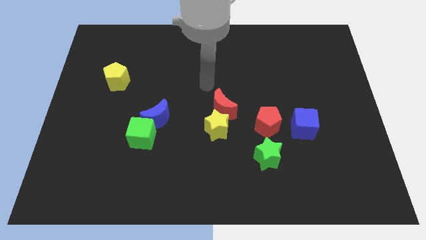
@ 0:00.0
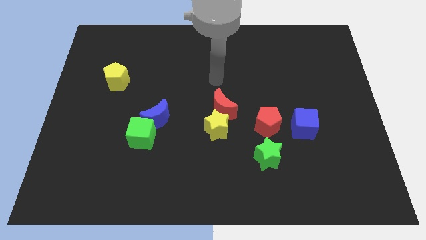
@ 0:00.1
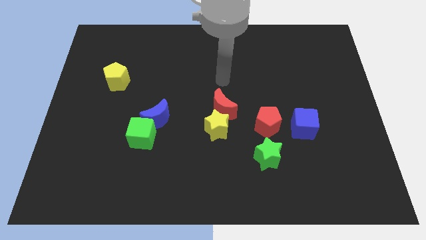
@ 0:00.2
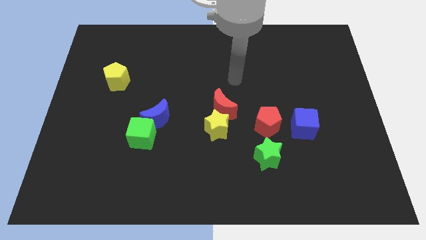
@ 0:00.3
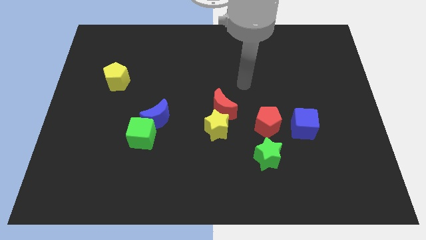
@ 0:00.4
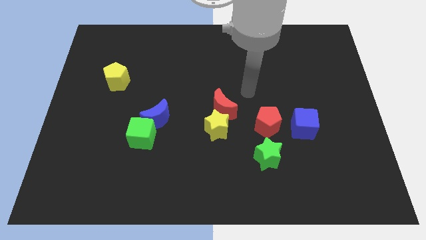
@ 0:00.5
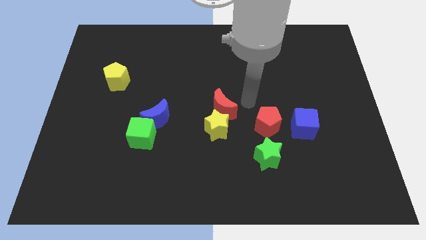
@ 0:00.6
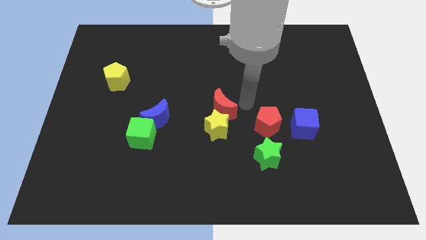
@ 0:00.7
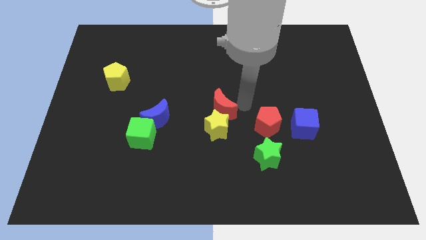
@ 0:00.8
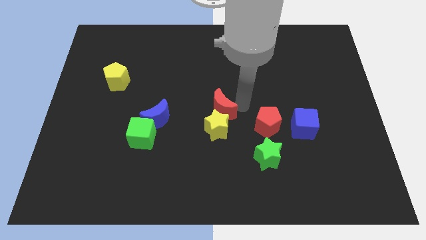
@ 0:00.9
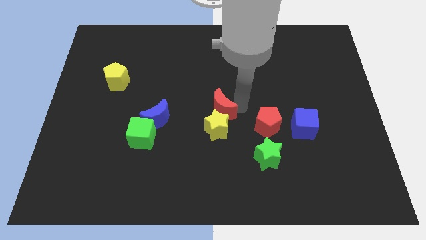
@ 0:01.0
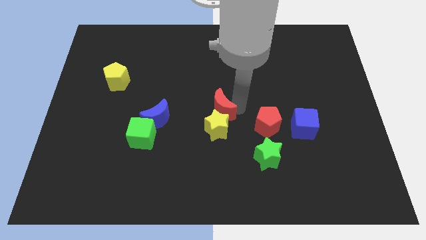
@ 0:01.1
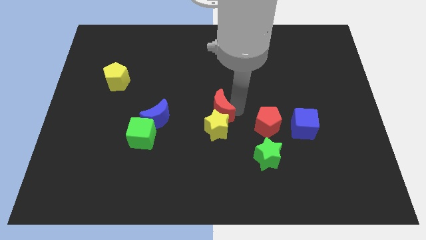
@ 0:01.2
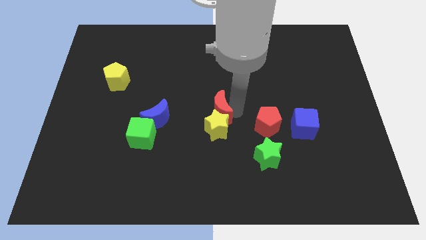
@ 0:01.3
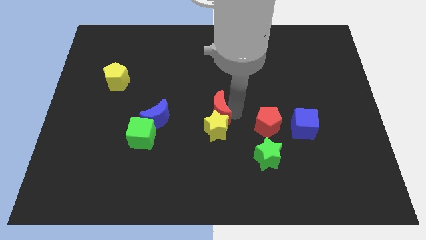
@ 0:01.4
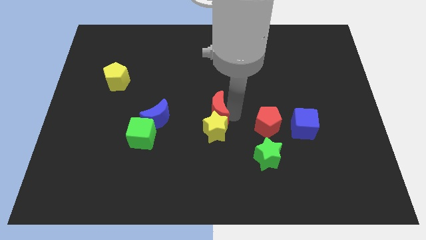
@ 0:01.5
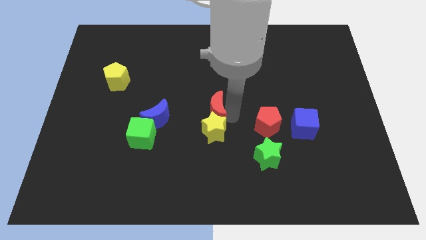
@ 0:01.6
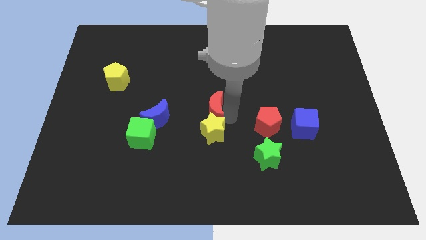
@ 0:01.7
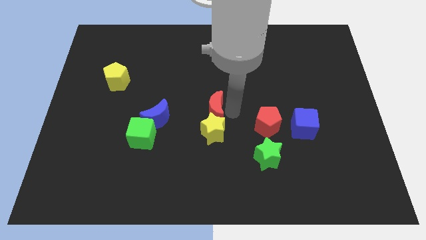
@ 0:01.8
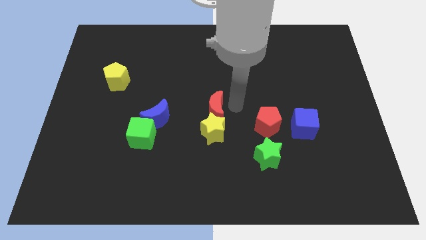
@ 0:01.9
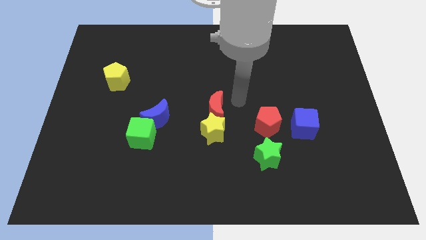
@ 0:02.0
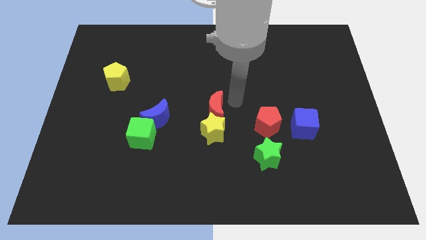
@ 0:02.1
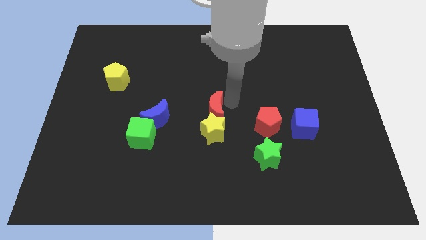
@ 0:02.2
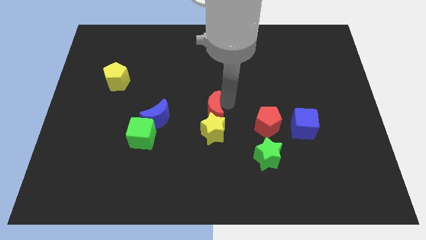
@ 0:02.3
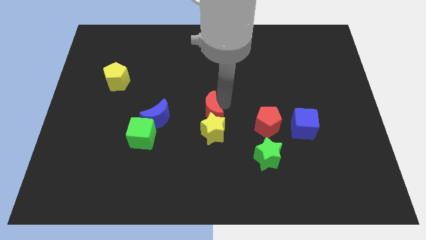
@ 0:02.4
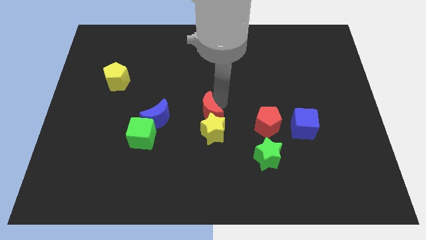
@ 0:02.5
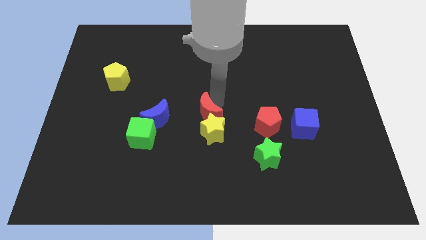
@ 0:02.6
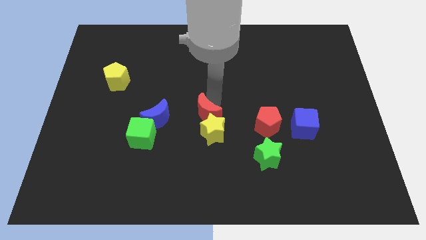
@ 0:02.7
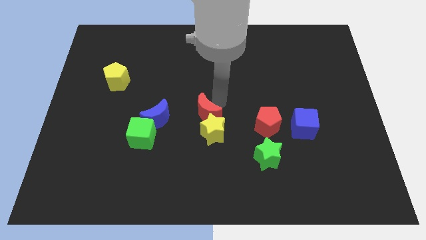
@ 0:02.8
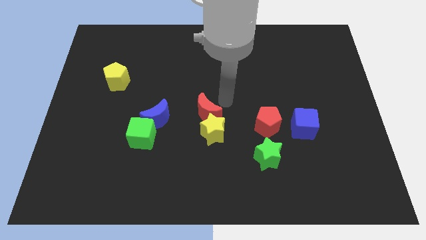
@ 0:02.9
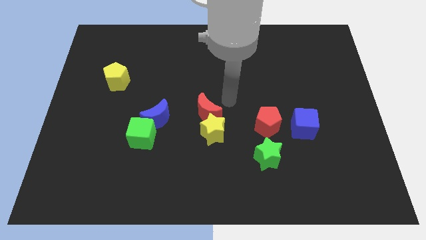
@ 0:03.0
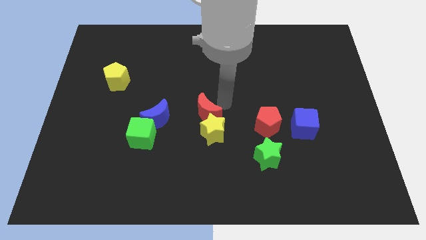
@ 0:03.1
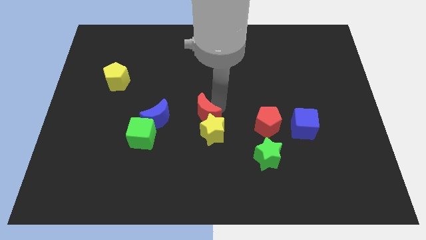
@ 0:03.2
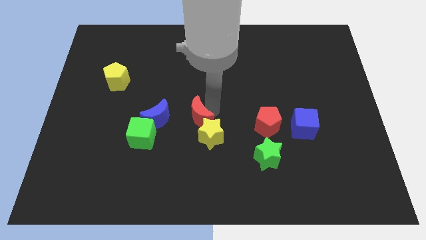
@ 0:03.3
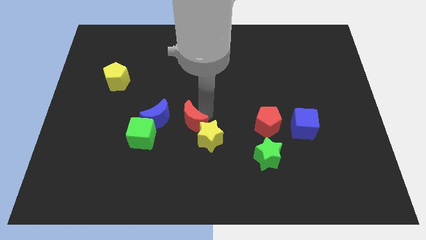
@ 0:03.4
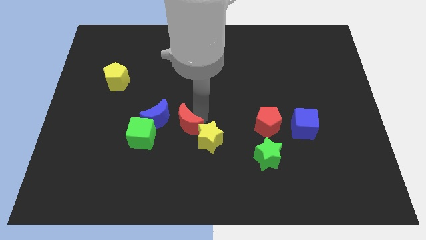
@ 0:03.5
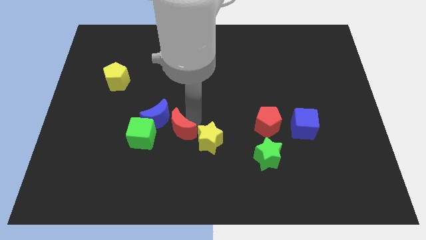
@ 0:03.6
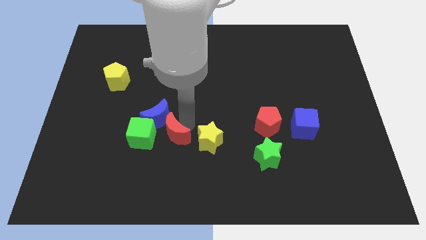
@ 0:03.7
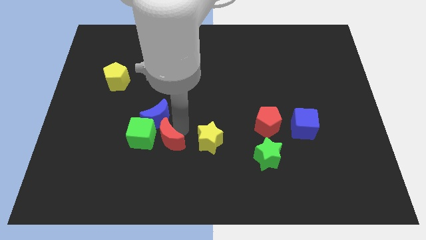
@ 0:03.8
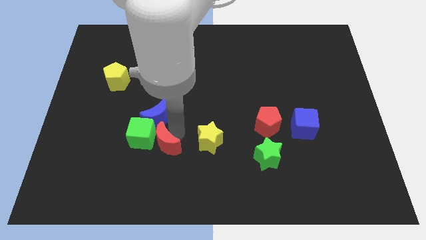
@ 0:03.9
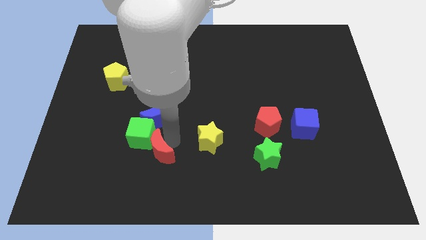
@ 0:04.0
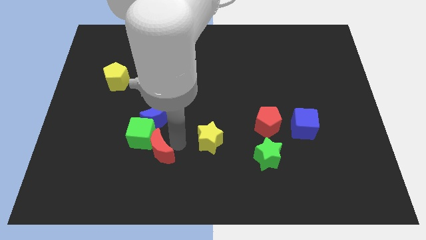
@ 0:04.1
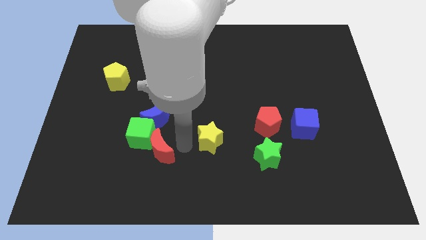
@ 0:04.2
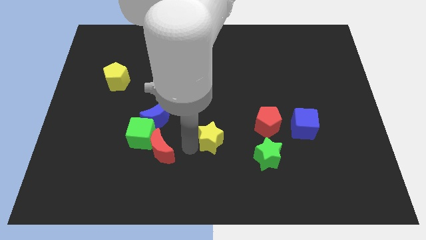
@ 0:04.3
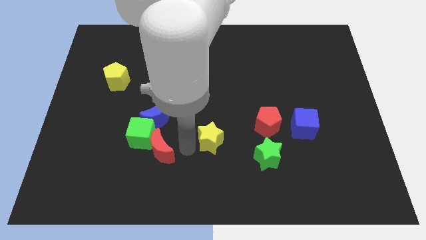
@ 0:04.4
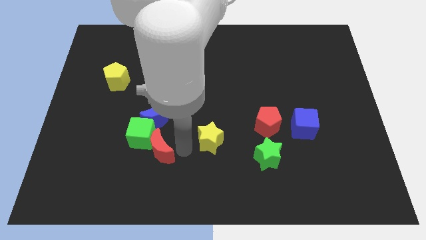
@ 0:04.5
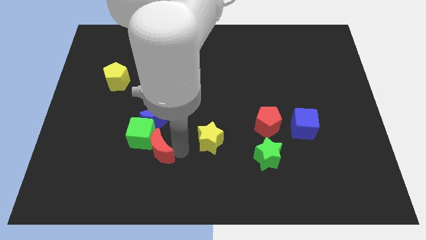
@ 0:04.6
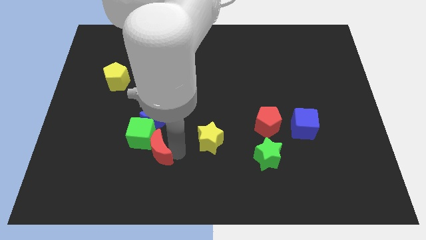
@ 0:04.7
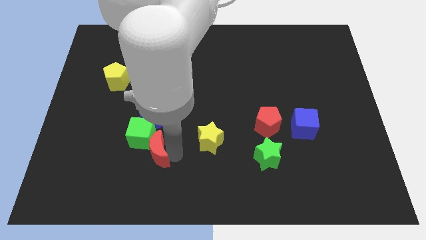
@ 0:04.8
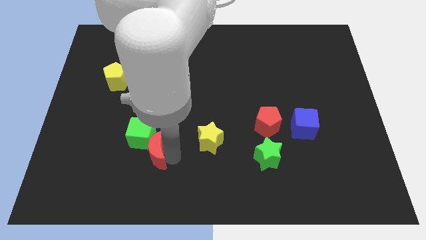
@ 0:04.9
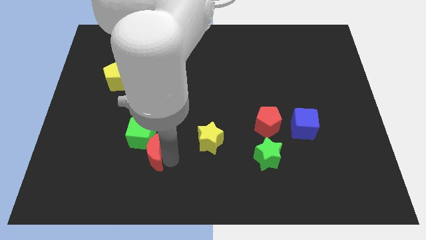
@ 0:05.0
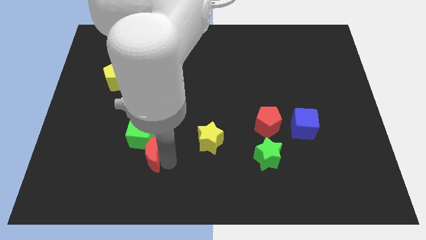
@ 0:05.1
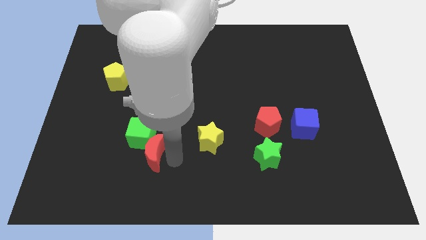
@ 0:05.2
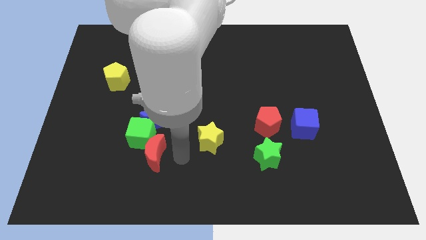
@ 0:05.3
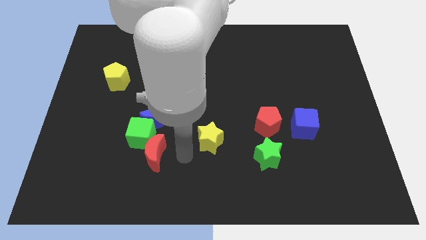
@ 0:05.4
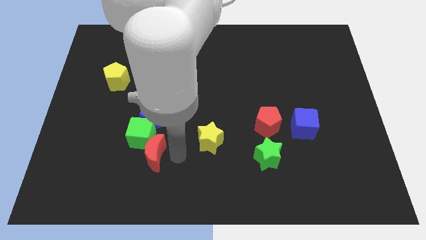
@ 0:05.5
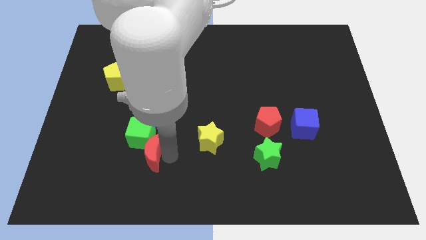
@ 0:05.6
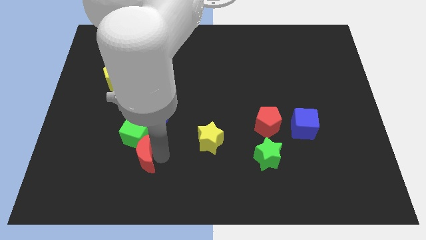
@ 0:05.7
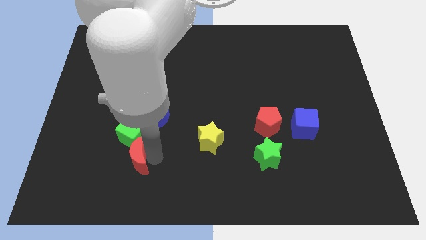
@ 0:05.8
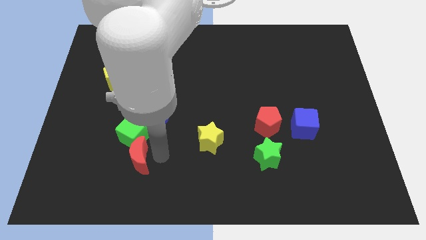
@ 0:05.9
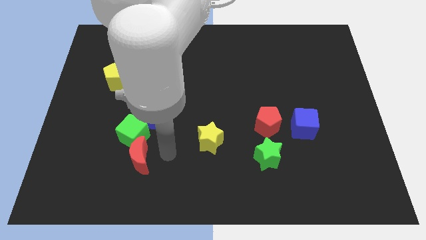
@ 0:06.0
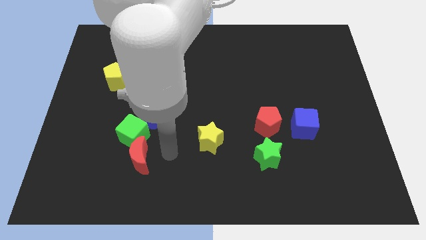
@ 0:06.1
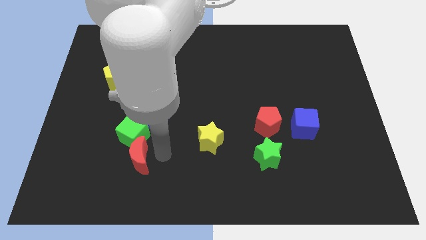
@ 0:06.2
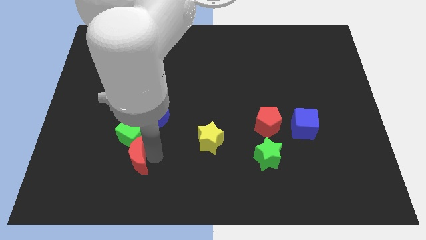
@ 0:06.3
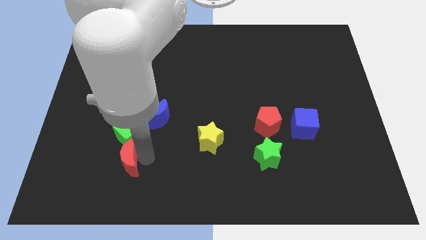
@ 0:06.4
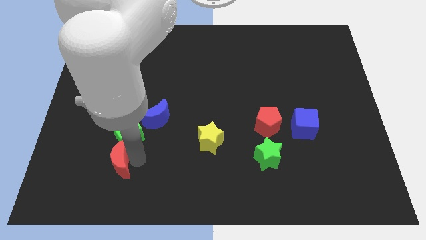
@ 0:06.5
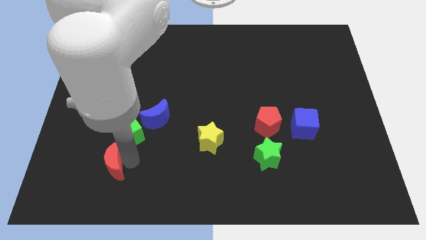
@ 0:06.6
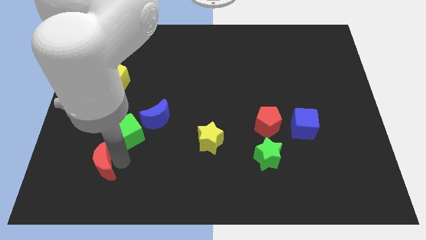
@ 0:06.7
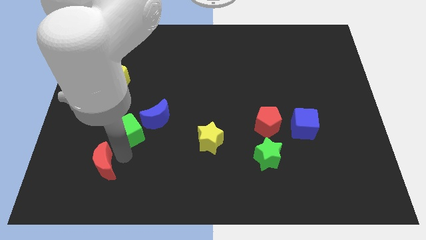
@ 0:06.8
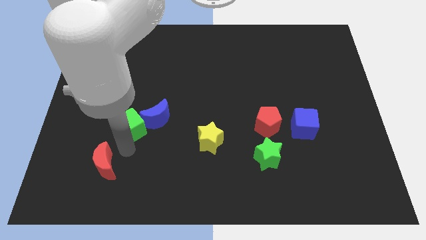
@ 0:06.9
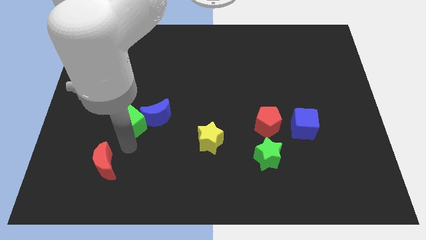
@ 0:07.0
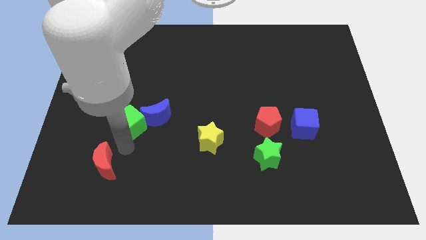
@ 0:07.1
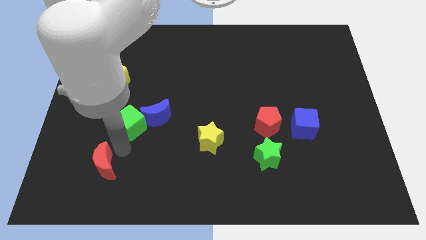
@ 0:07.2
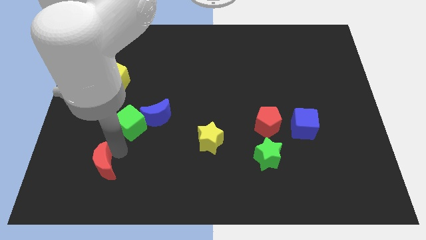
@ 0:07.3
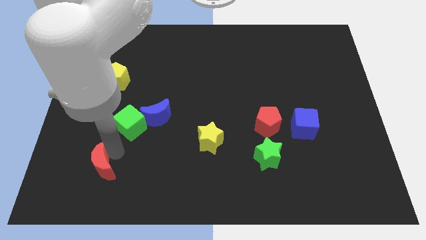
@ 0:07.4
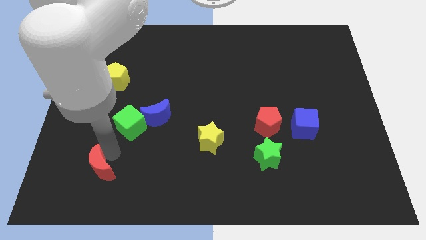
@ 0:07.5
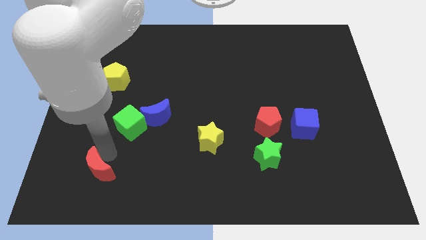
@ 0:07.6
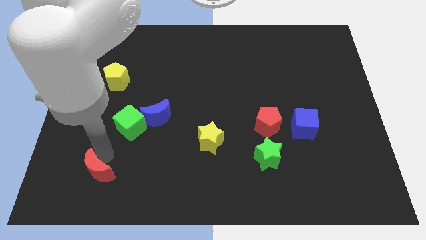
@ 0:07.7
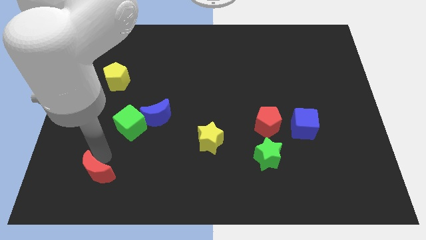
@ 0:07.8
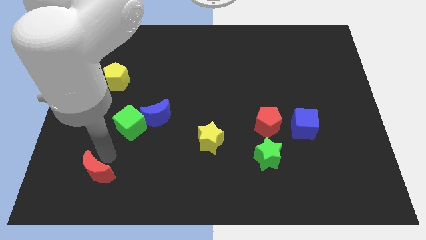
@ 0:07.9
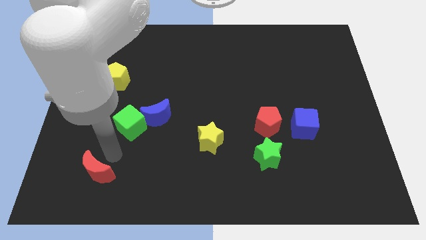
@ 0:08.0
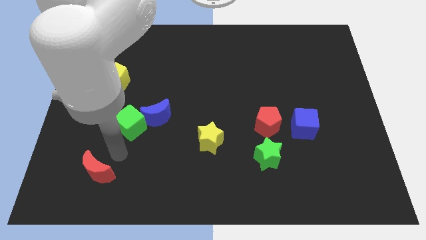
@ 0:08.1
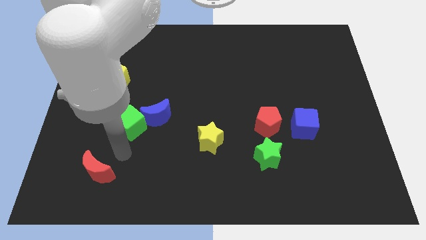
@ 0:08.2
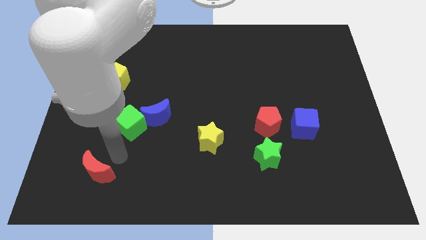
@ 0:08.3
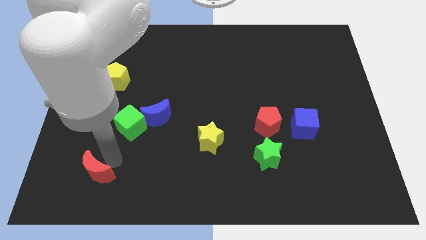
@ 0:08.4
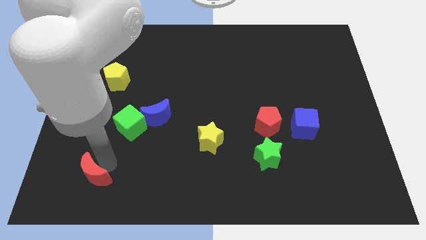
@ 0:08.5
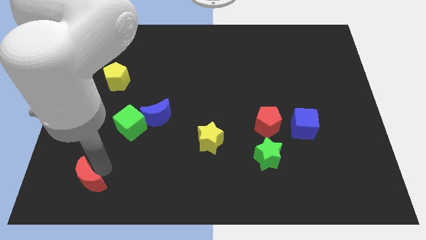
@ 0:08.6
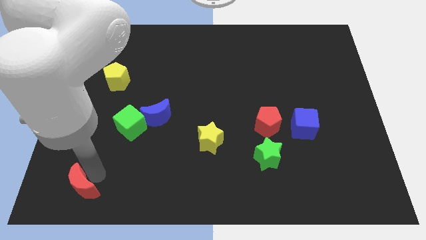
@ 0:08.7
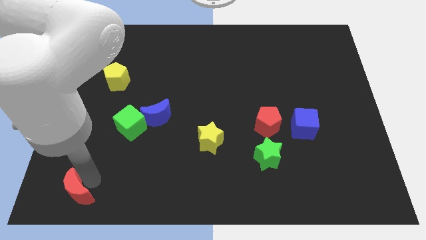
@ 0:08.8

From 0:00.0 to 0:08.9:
slide the red moon to the bottom left of the board
